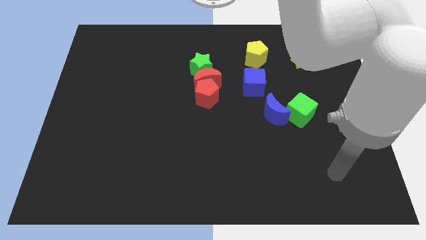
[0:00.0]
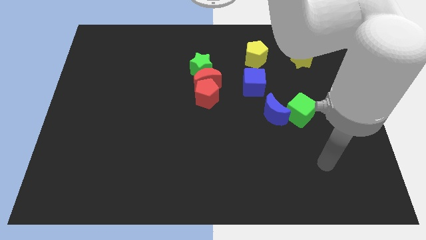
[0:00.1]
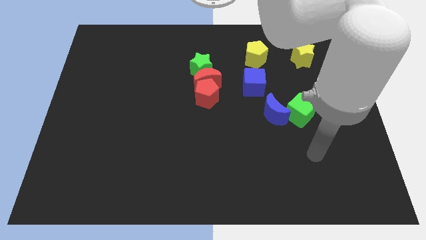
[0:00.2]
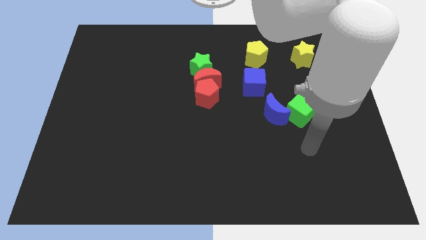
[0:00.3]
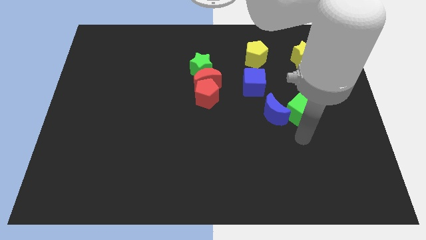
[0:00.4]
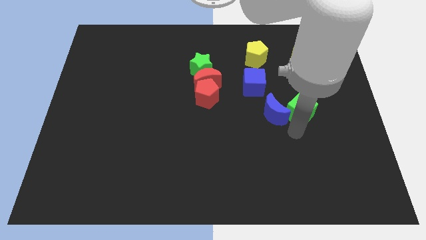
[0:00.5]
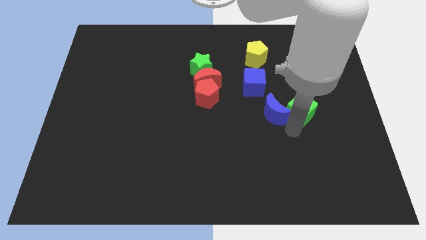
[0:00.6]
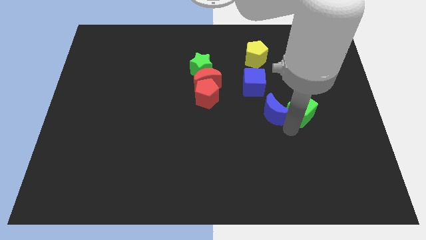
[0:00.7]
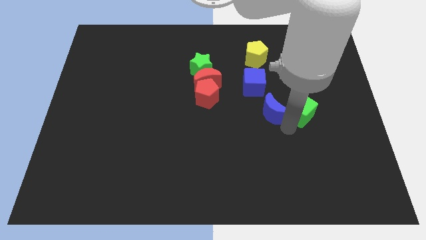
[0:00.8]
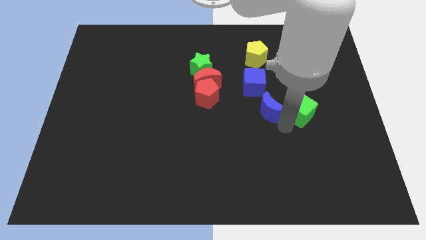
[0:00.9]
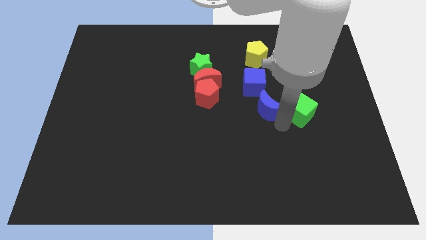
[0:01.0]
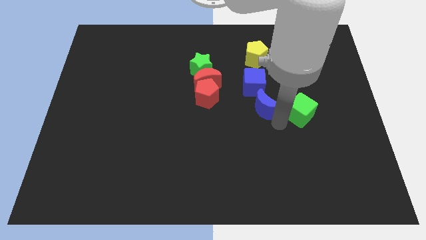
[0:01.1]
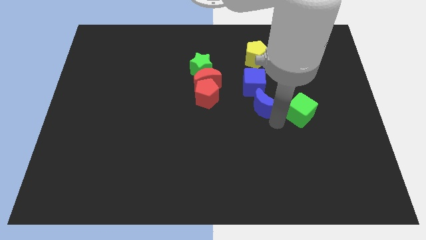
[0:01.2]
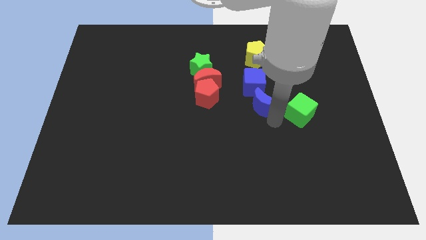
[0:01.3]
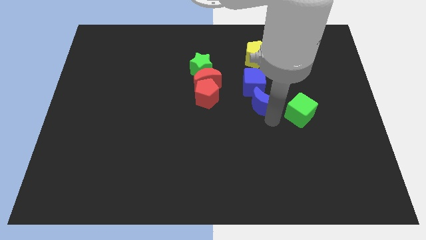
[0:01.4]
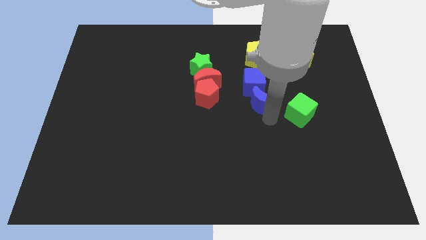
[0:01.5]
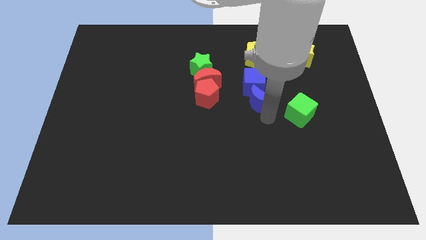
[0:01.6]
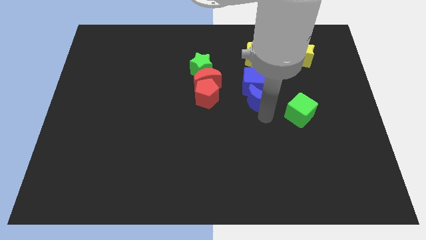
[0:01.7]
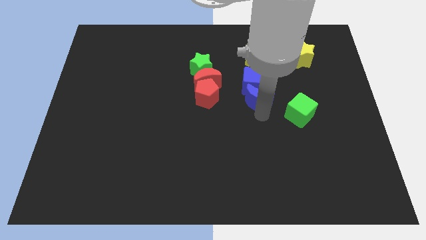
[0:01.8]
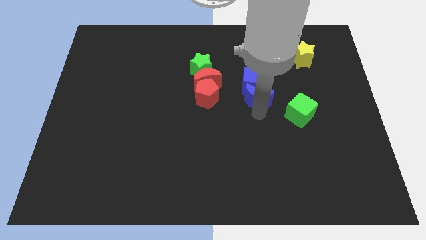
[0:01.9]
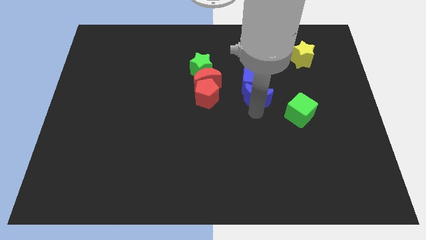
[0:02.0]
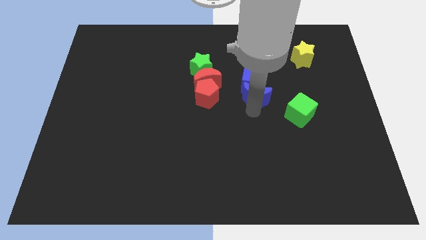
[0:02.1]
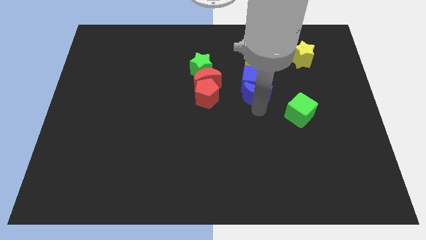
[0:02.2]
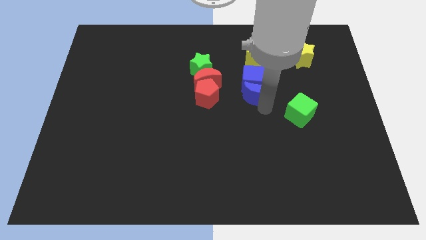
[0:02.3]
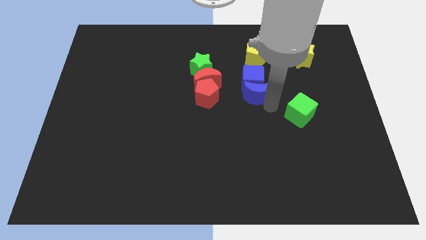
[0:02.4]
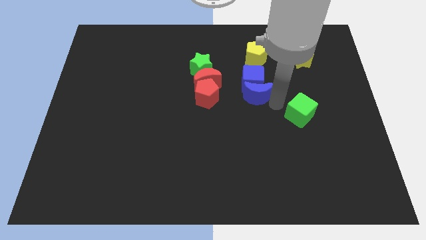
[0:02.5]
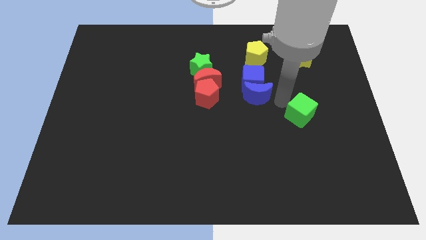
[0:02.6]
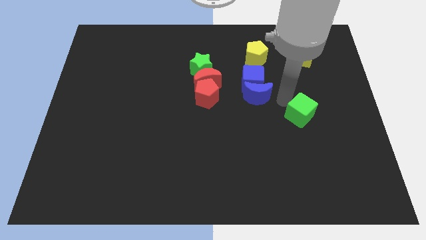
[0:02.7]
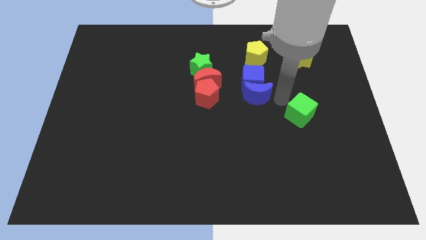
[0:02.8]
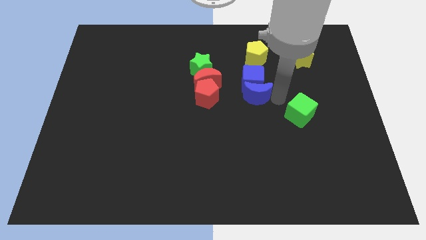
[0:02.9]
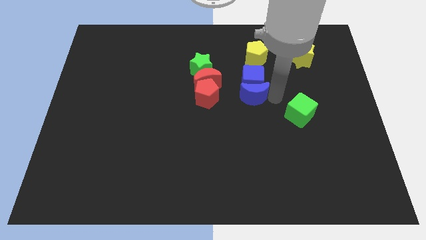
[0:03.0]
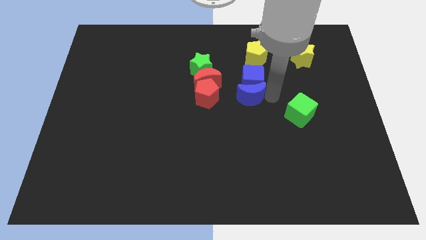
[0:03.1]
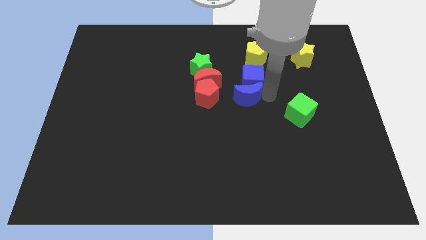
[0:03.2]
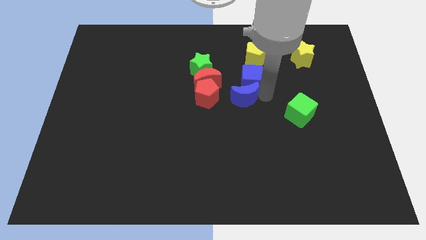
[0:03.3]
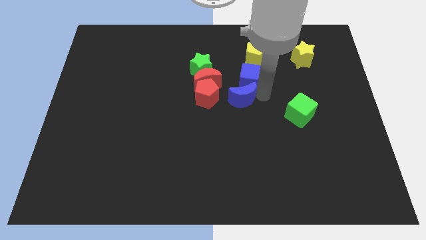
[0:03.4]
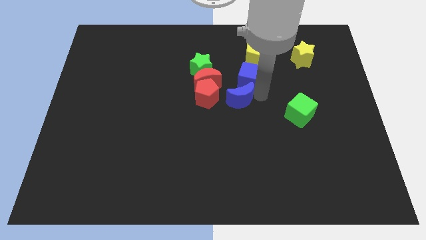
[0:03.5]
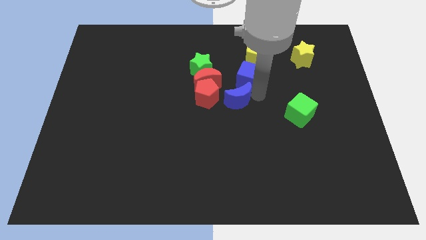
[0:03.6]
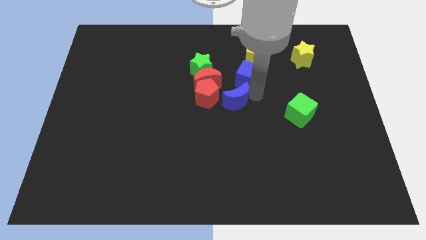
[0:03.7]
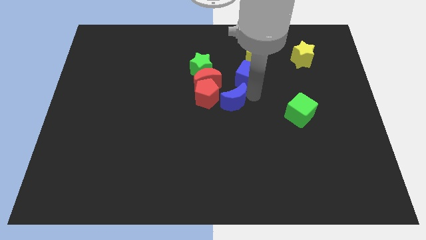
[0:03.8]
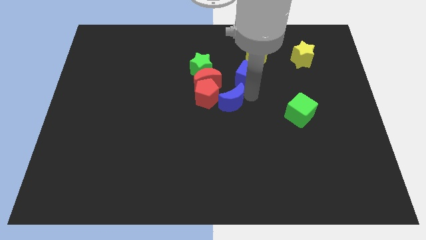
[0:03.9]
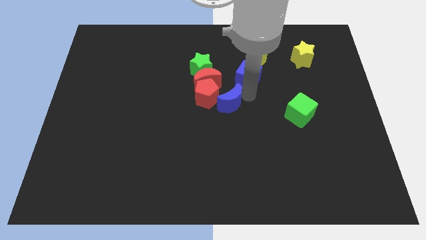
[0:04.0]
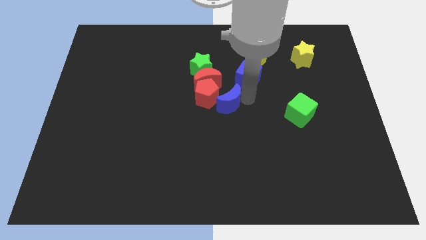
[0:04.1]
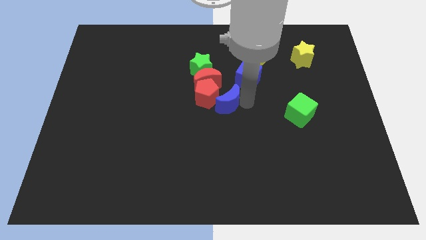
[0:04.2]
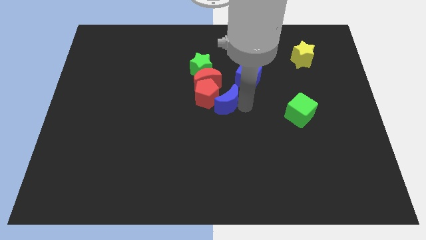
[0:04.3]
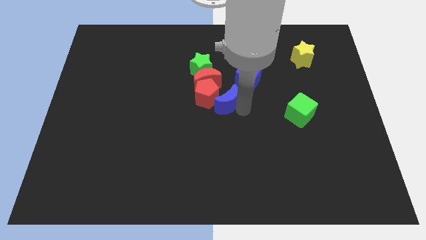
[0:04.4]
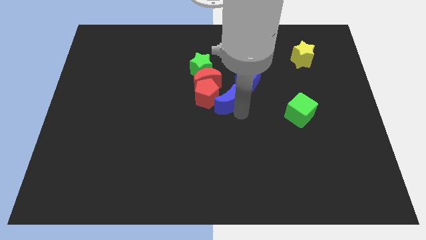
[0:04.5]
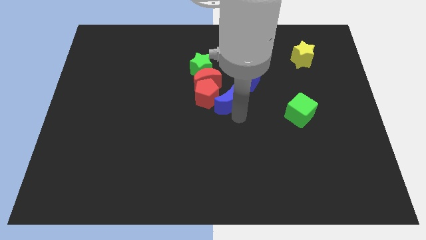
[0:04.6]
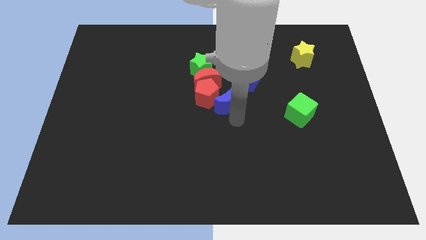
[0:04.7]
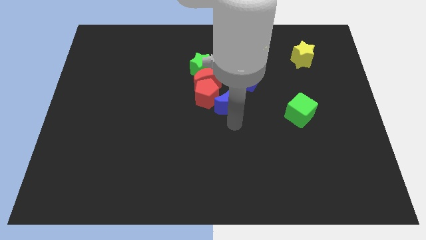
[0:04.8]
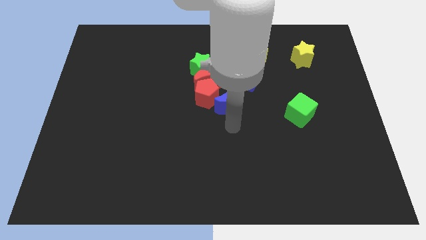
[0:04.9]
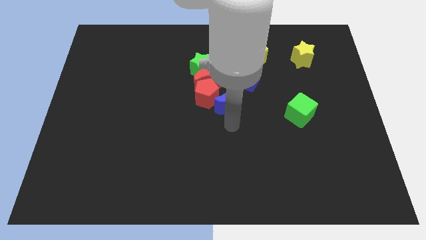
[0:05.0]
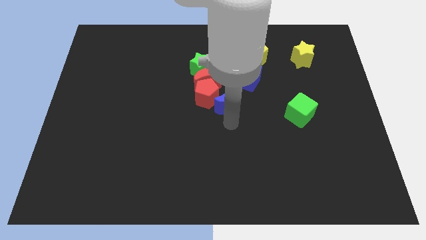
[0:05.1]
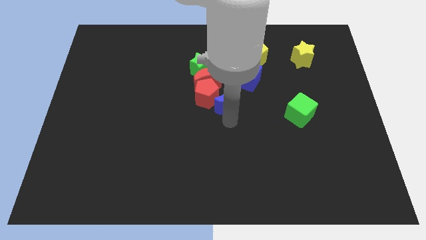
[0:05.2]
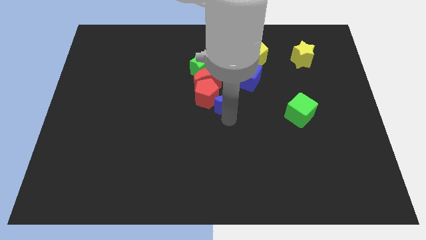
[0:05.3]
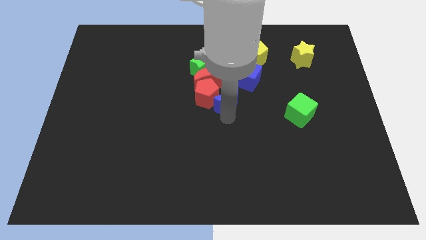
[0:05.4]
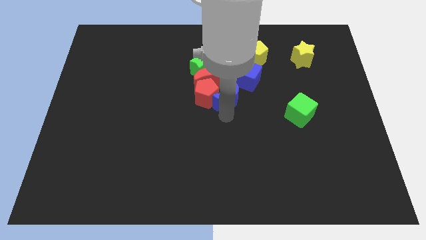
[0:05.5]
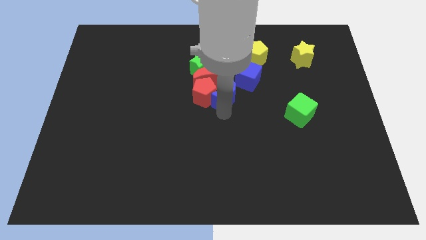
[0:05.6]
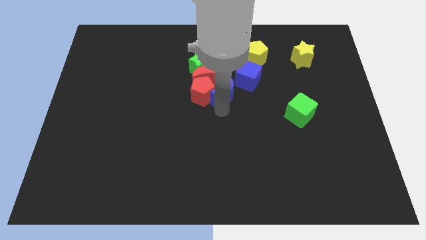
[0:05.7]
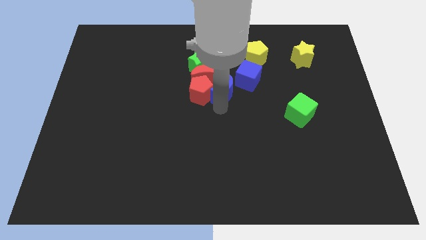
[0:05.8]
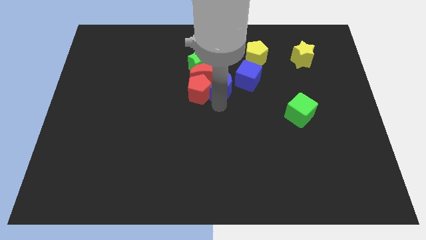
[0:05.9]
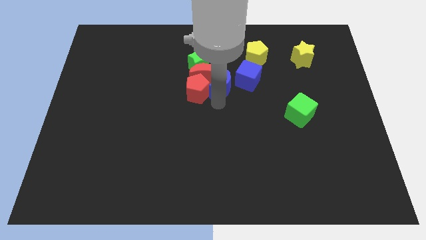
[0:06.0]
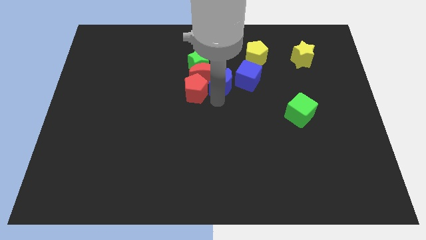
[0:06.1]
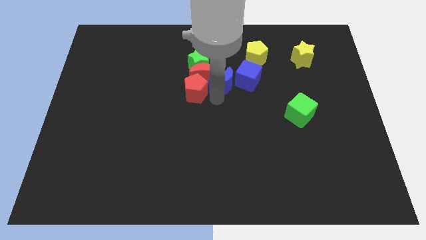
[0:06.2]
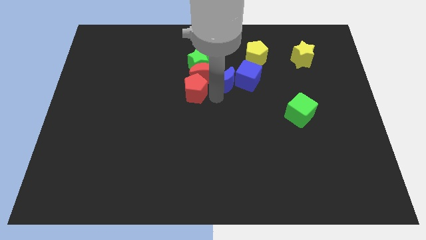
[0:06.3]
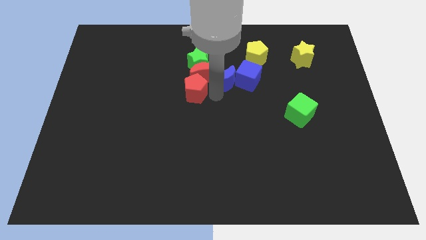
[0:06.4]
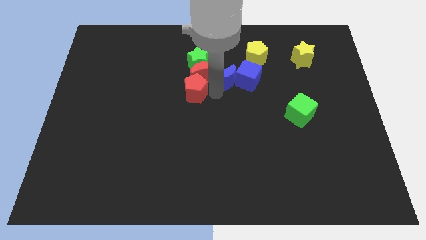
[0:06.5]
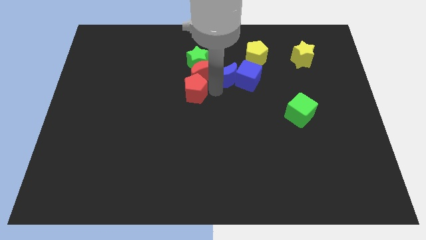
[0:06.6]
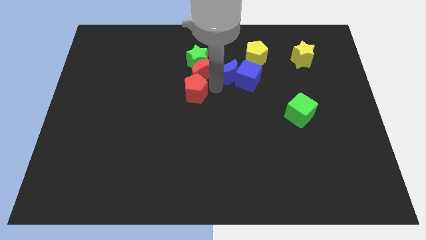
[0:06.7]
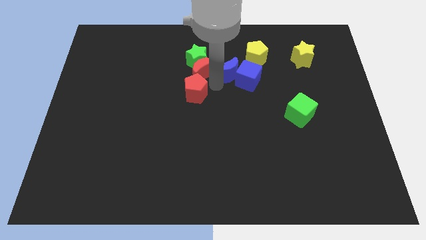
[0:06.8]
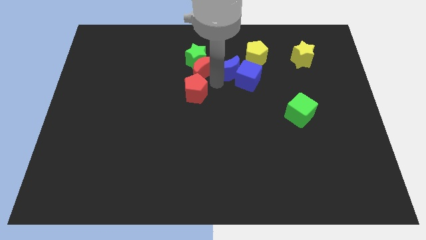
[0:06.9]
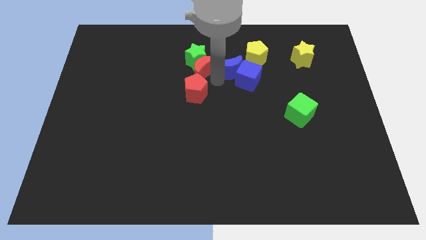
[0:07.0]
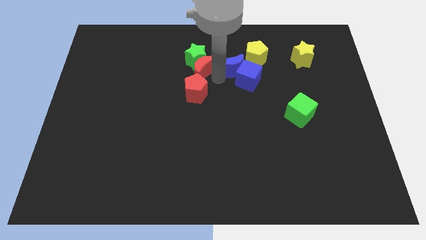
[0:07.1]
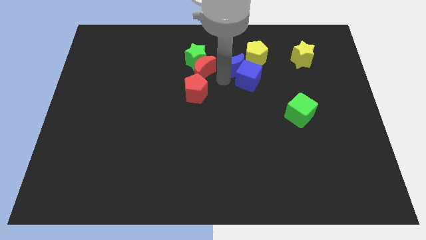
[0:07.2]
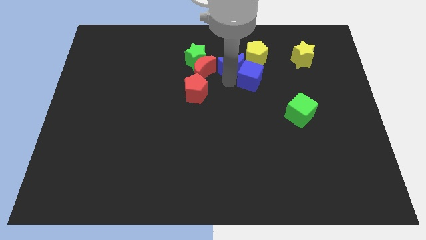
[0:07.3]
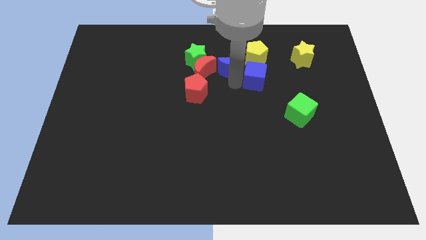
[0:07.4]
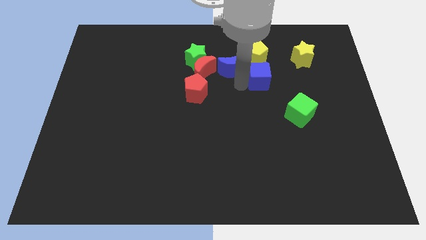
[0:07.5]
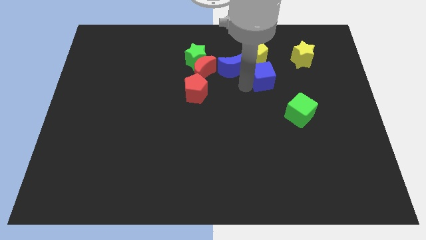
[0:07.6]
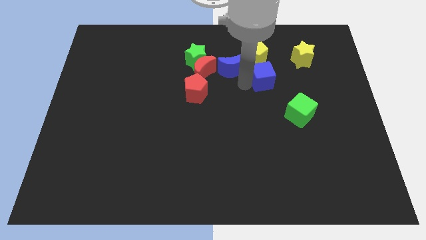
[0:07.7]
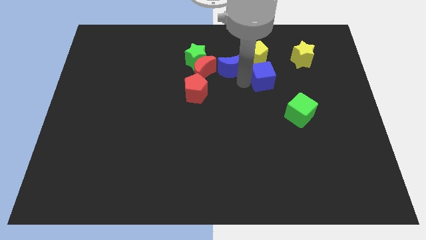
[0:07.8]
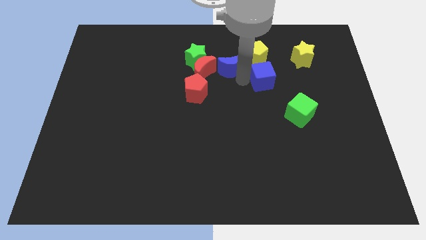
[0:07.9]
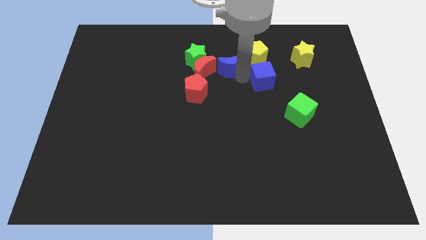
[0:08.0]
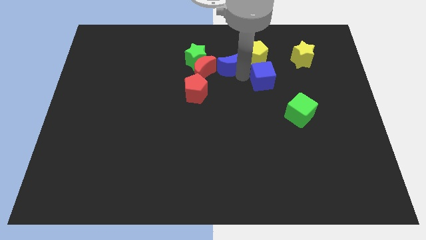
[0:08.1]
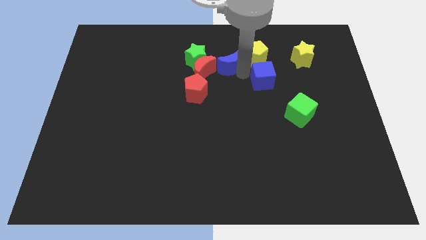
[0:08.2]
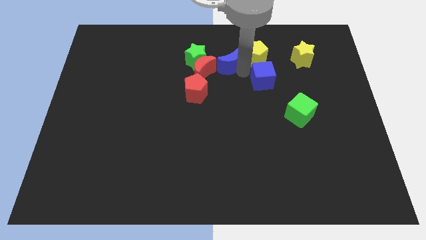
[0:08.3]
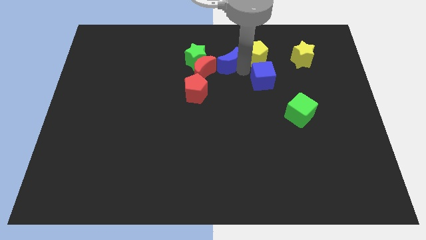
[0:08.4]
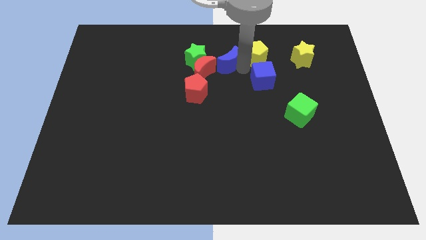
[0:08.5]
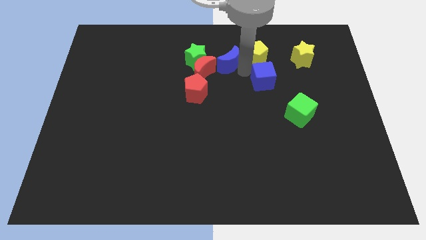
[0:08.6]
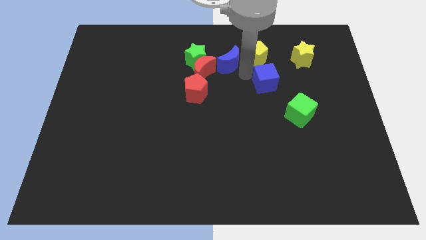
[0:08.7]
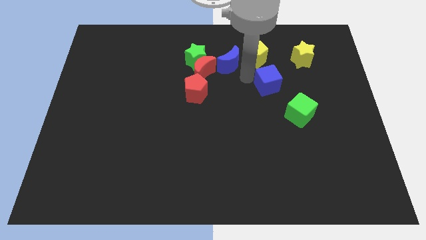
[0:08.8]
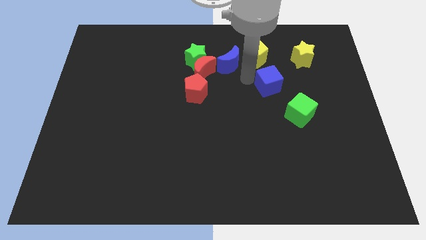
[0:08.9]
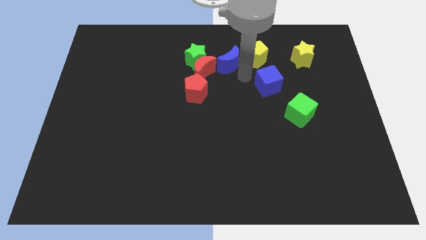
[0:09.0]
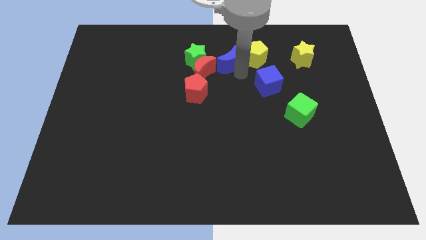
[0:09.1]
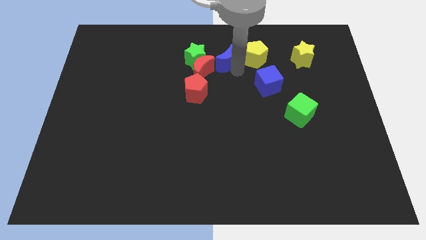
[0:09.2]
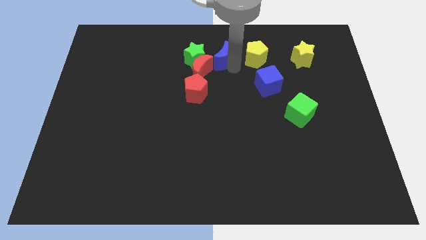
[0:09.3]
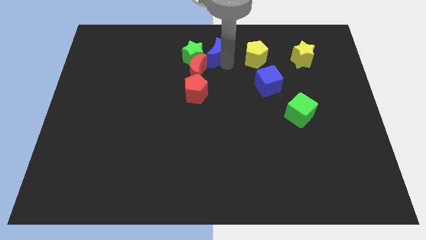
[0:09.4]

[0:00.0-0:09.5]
move the blue moon to the top side
